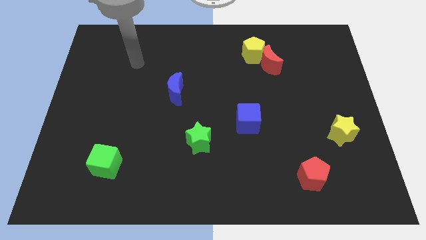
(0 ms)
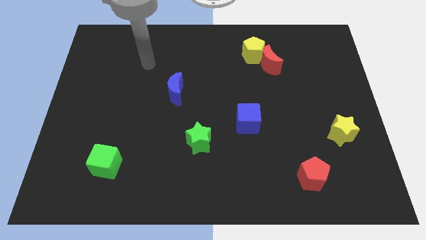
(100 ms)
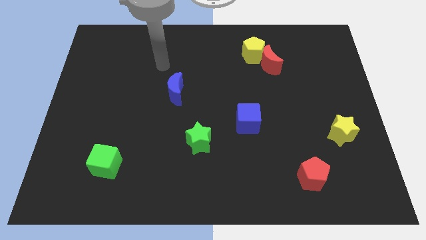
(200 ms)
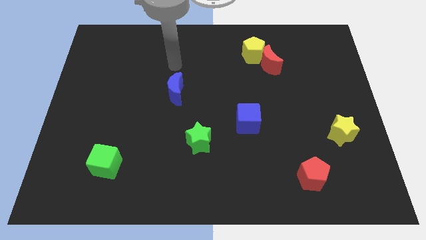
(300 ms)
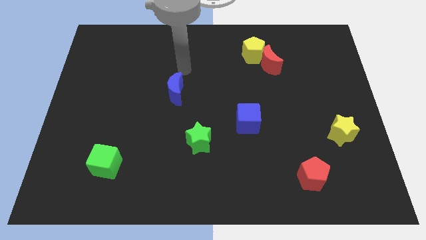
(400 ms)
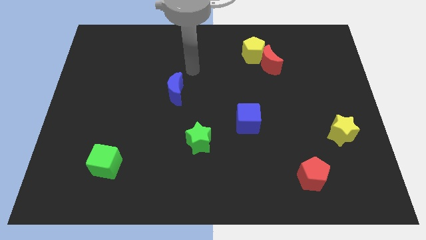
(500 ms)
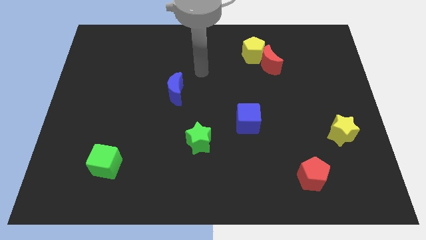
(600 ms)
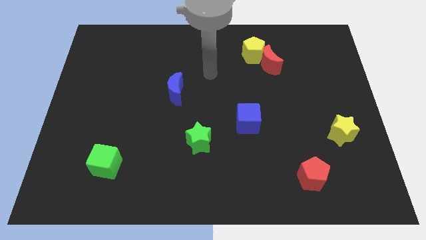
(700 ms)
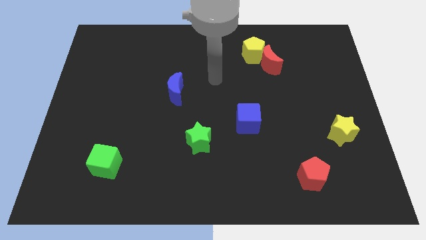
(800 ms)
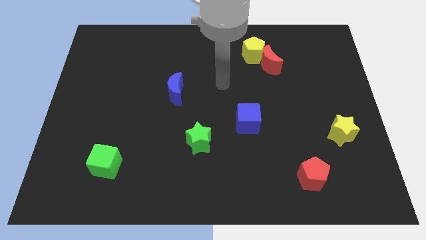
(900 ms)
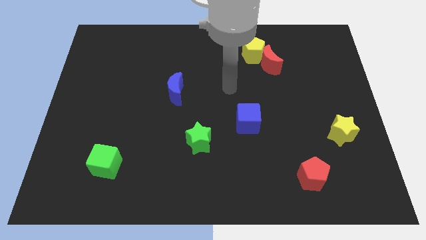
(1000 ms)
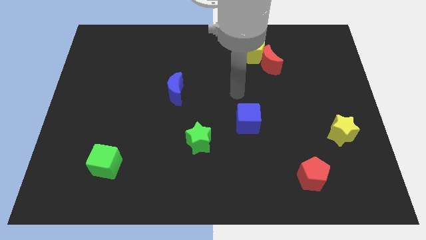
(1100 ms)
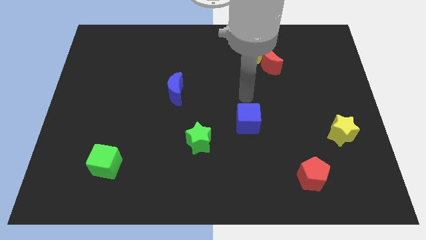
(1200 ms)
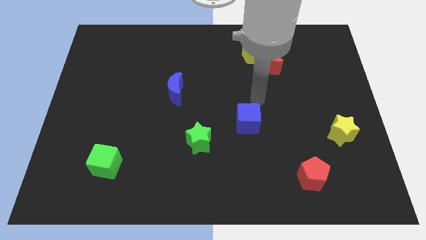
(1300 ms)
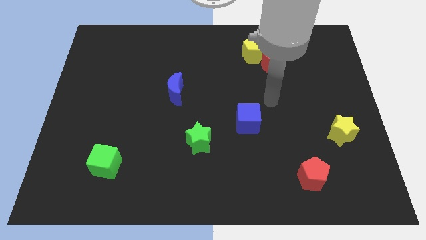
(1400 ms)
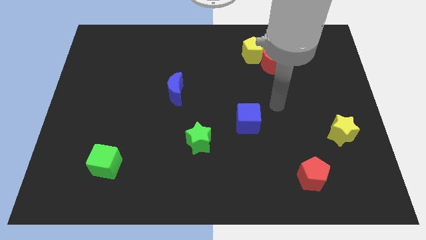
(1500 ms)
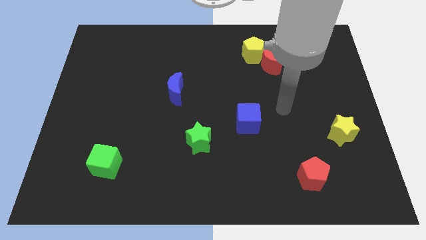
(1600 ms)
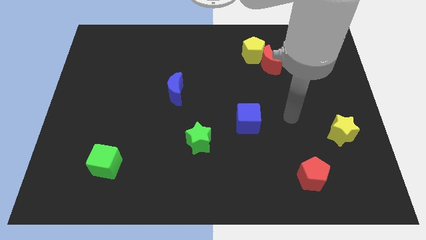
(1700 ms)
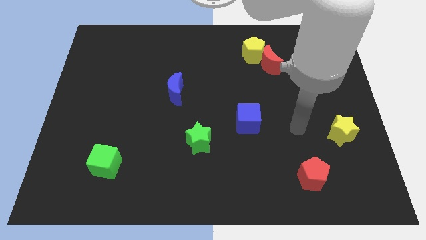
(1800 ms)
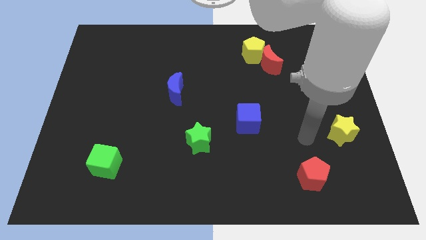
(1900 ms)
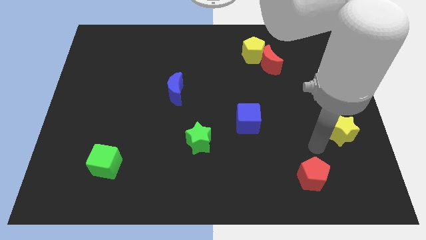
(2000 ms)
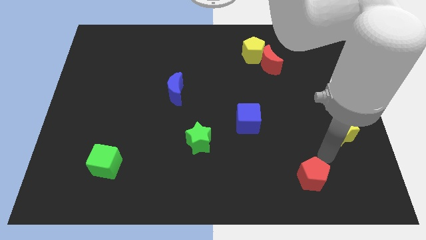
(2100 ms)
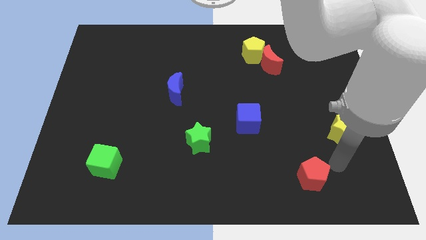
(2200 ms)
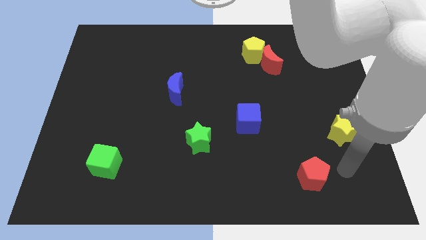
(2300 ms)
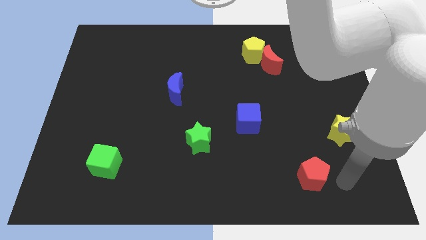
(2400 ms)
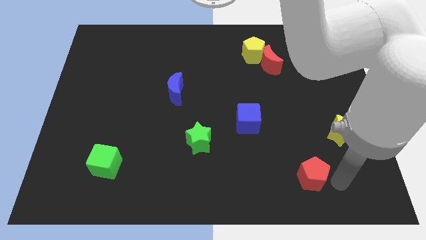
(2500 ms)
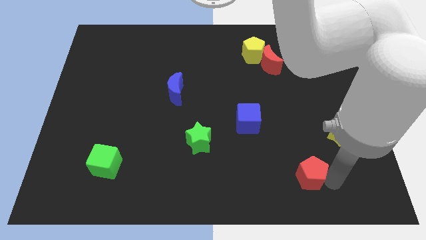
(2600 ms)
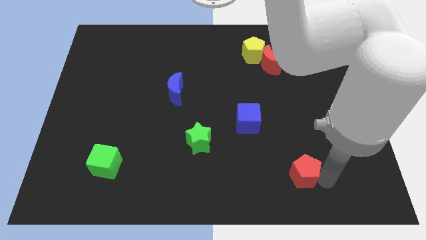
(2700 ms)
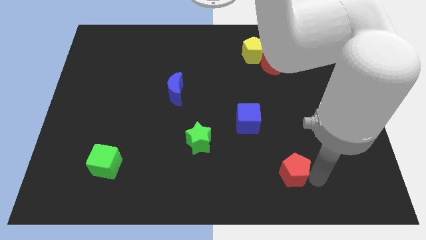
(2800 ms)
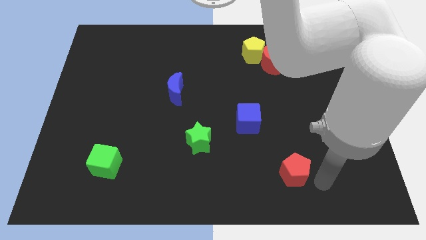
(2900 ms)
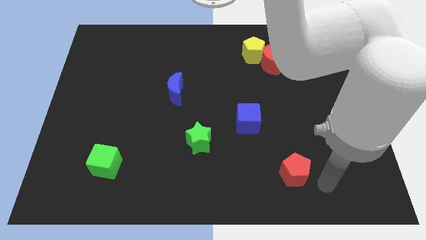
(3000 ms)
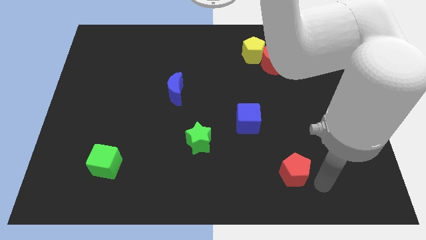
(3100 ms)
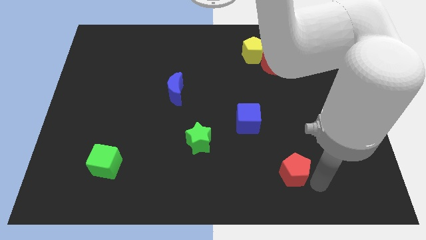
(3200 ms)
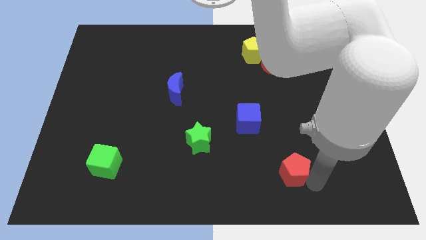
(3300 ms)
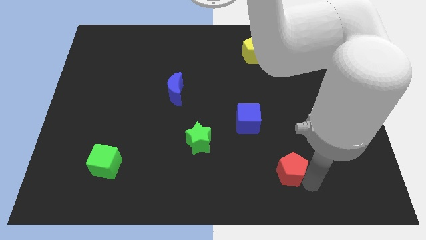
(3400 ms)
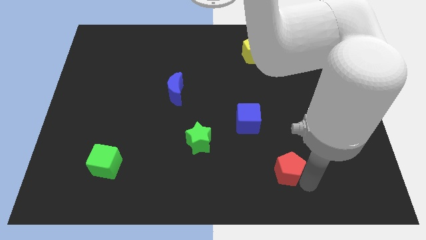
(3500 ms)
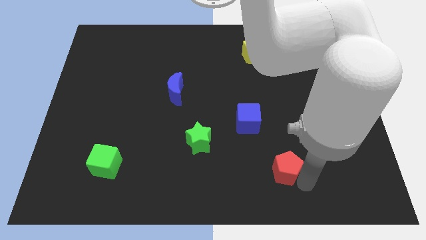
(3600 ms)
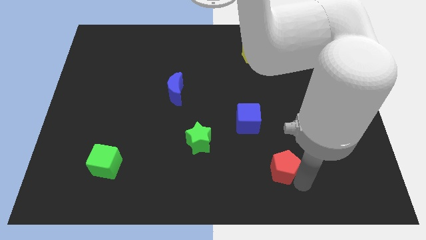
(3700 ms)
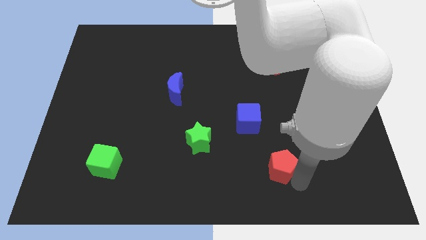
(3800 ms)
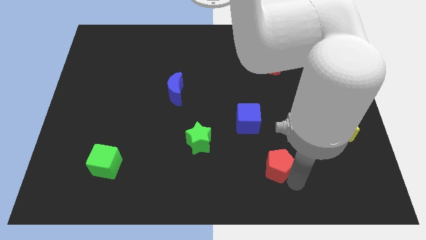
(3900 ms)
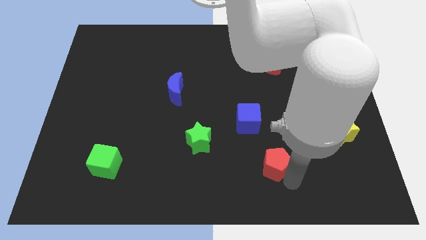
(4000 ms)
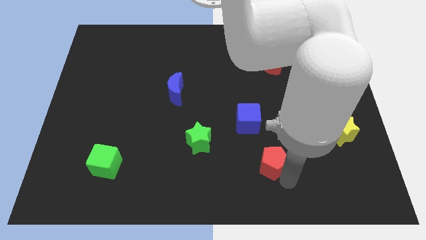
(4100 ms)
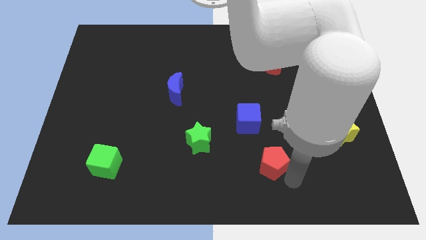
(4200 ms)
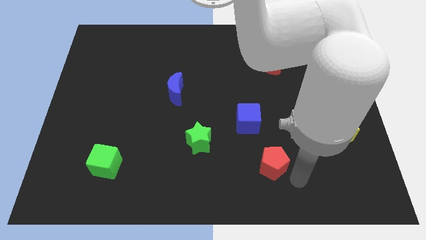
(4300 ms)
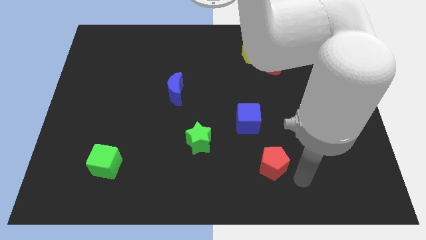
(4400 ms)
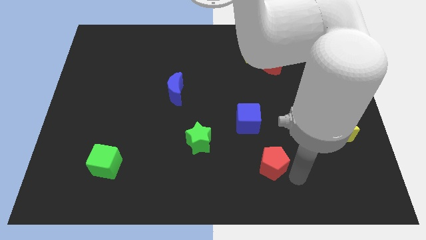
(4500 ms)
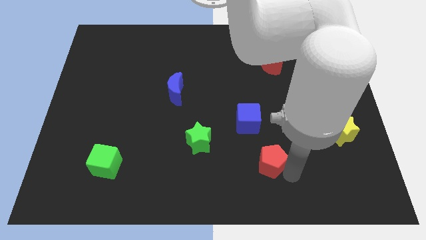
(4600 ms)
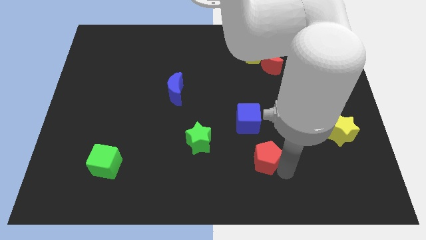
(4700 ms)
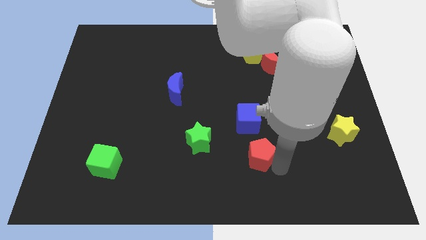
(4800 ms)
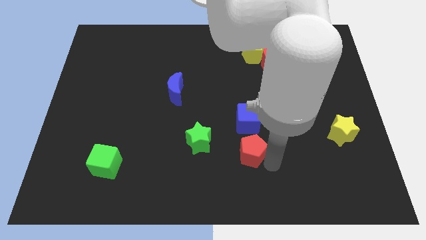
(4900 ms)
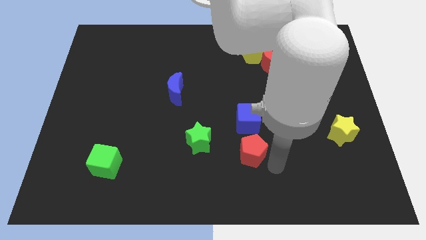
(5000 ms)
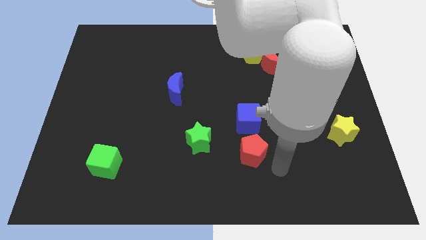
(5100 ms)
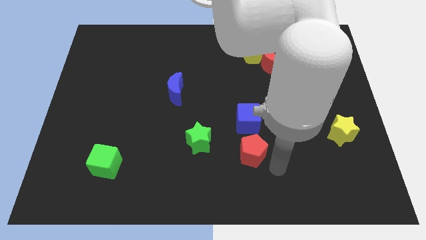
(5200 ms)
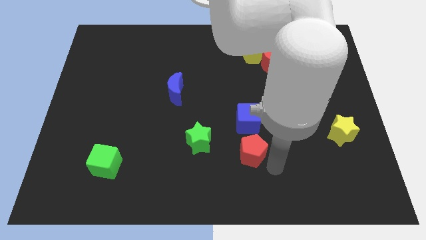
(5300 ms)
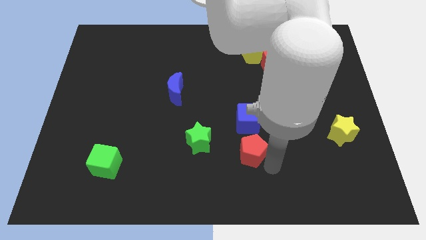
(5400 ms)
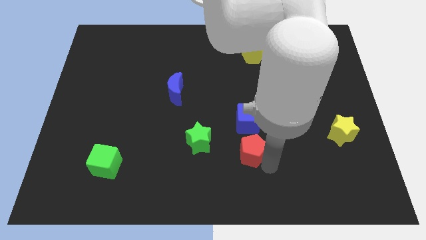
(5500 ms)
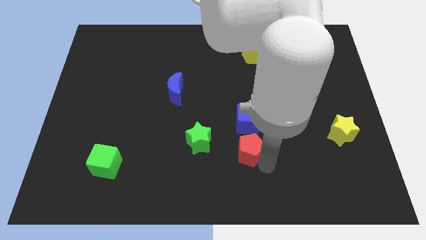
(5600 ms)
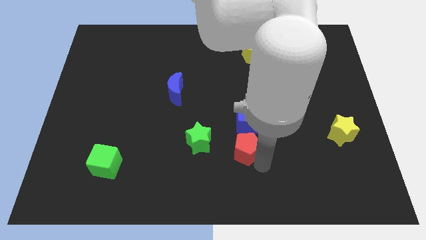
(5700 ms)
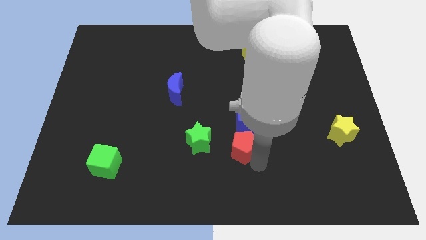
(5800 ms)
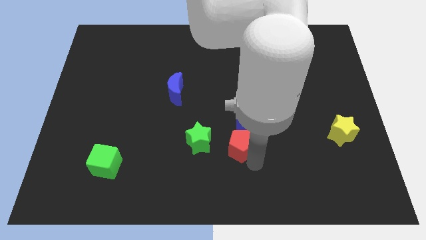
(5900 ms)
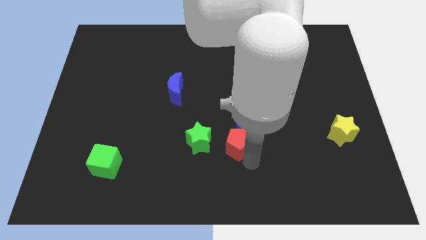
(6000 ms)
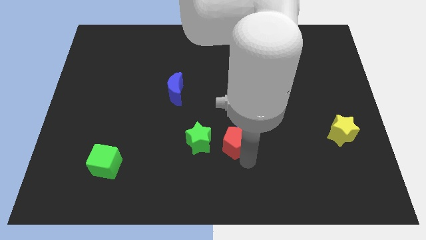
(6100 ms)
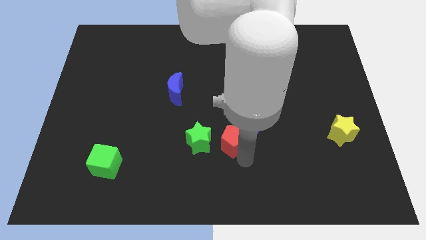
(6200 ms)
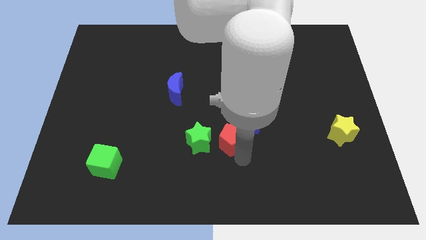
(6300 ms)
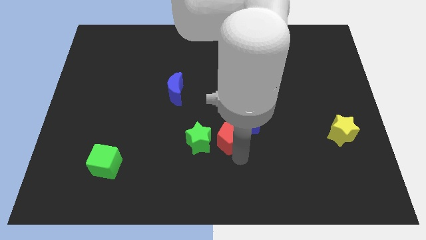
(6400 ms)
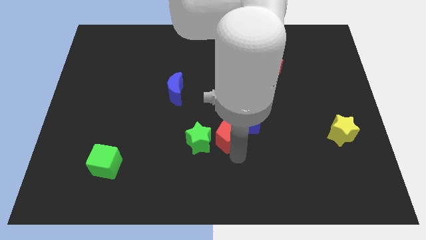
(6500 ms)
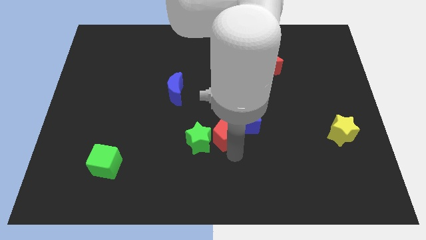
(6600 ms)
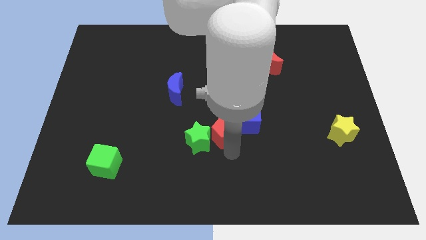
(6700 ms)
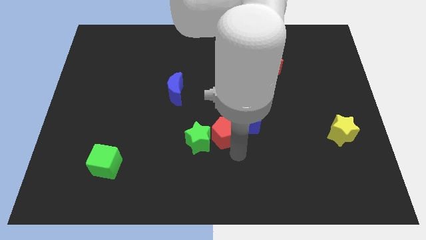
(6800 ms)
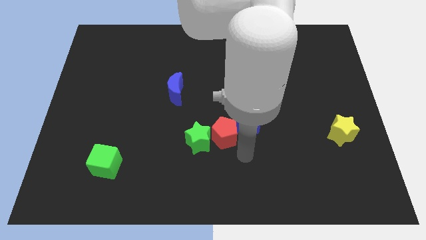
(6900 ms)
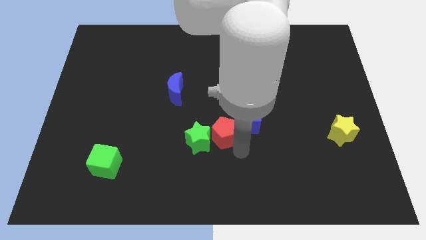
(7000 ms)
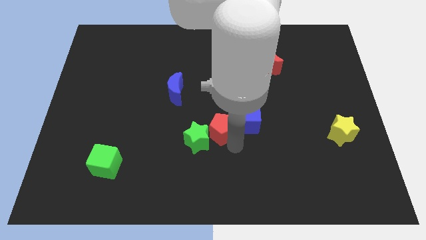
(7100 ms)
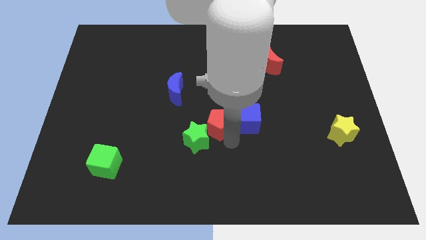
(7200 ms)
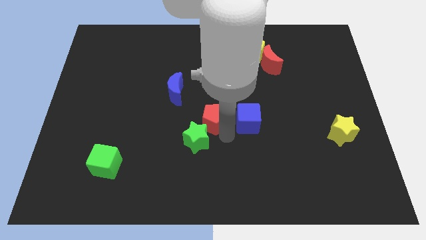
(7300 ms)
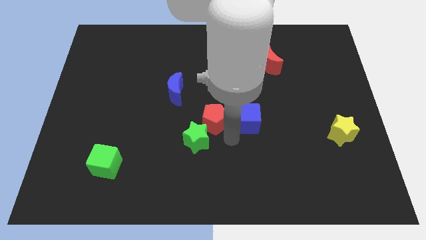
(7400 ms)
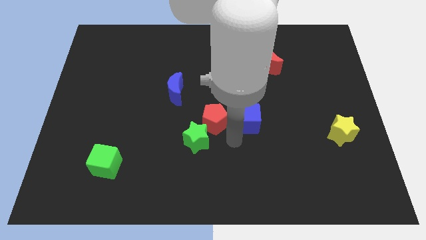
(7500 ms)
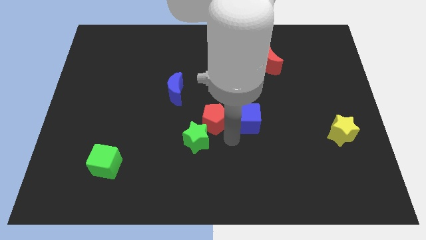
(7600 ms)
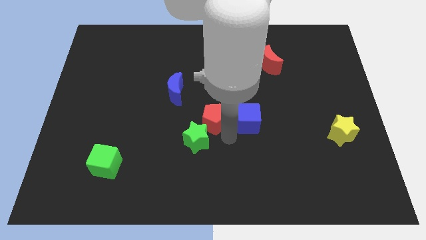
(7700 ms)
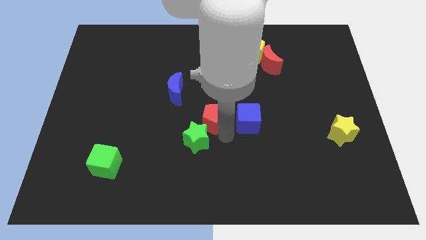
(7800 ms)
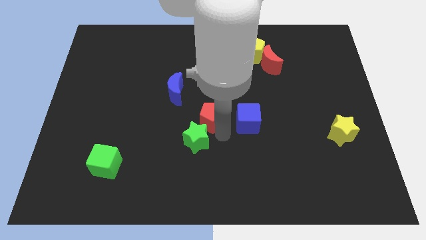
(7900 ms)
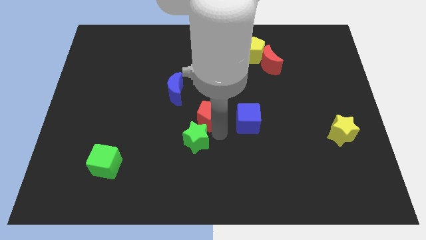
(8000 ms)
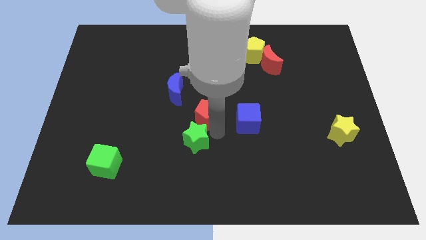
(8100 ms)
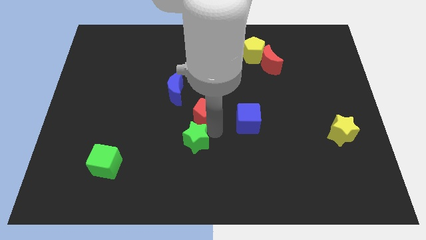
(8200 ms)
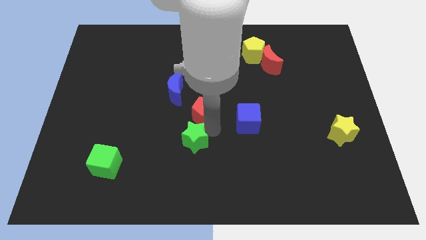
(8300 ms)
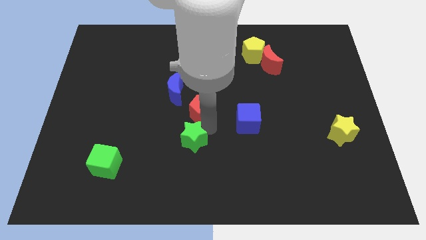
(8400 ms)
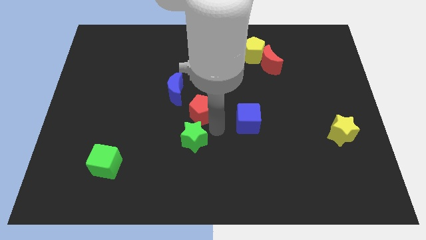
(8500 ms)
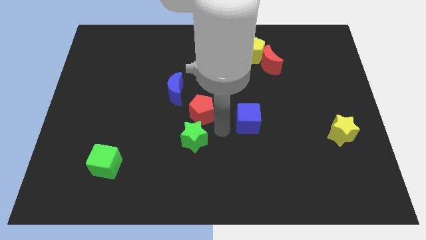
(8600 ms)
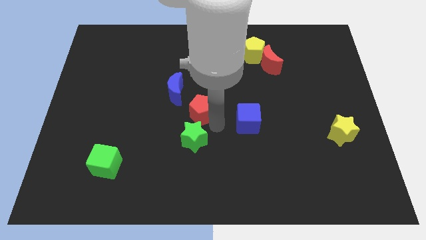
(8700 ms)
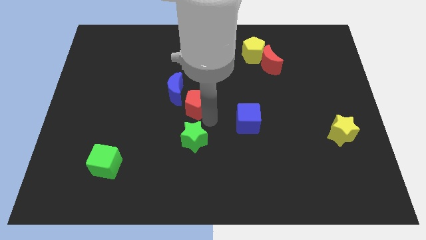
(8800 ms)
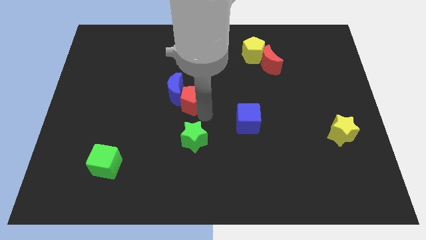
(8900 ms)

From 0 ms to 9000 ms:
slide the red pentagon towards the blue moon
